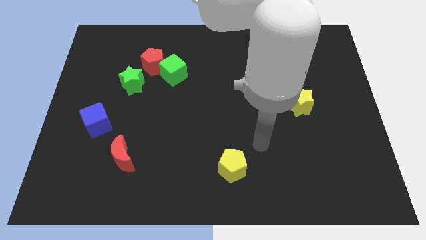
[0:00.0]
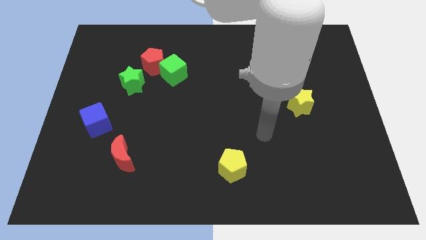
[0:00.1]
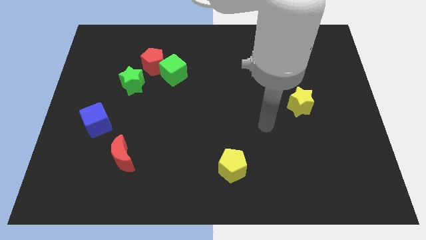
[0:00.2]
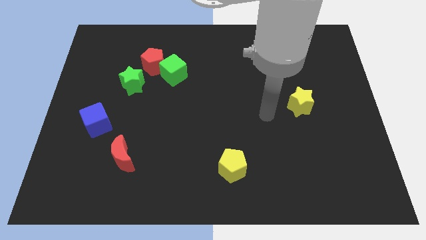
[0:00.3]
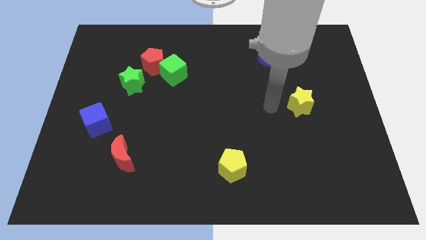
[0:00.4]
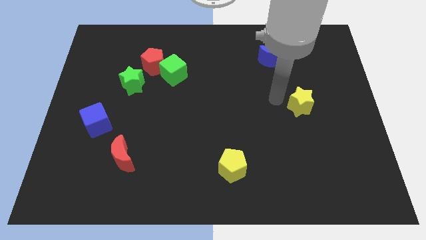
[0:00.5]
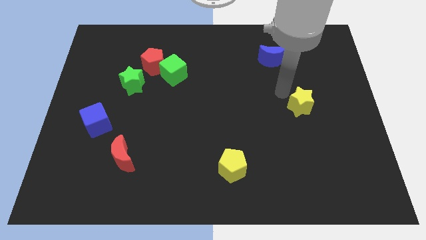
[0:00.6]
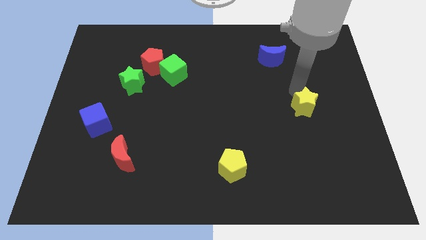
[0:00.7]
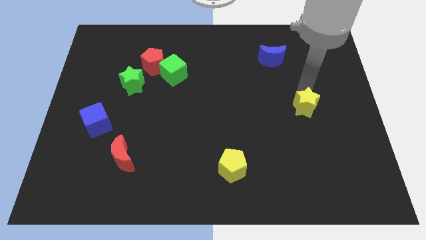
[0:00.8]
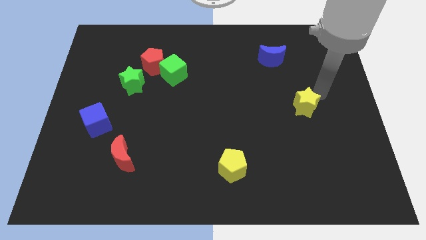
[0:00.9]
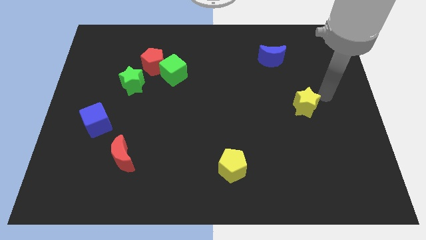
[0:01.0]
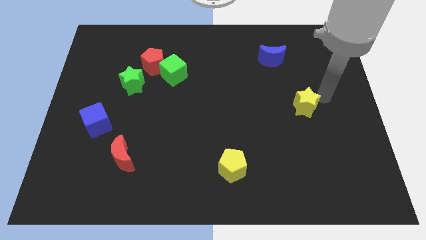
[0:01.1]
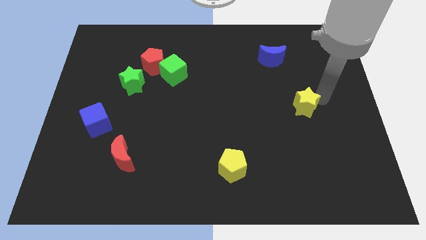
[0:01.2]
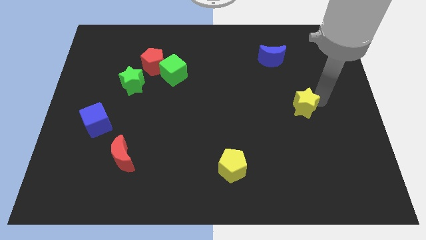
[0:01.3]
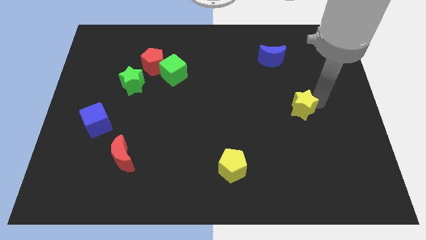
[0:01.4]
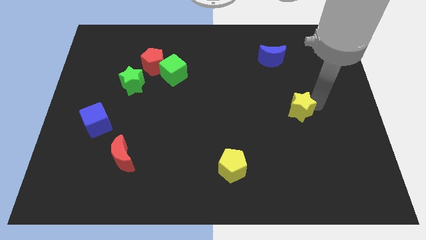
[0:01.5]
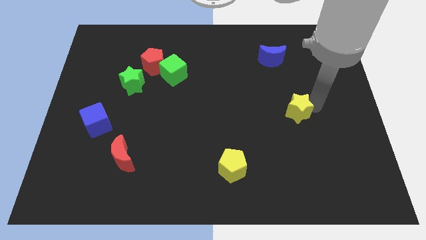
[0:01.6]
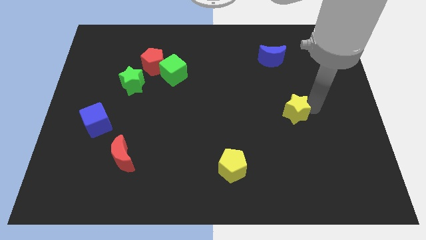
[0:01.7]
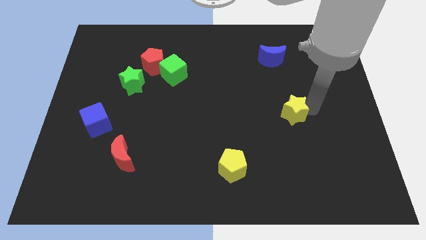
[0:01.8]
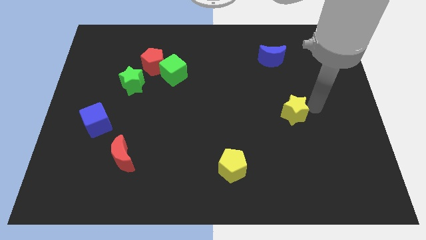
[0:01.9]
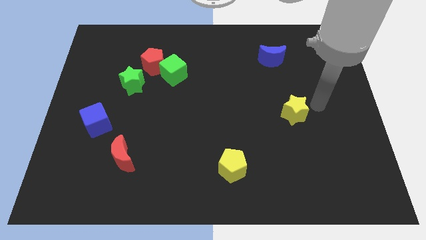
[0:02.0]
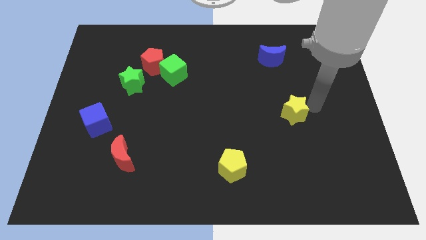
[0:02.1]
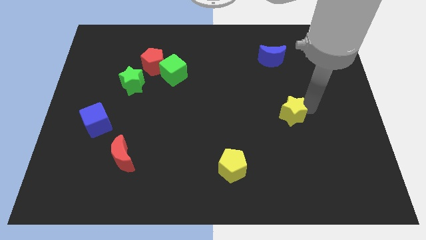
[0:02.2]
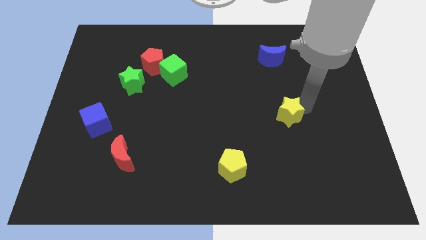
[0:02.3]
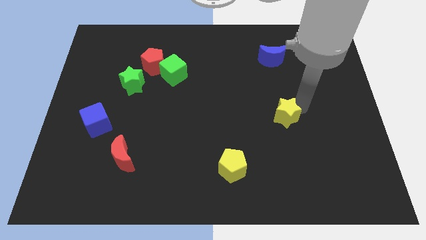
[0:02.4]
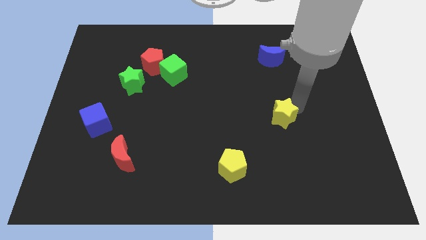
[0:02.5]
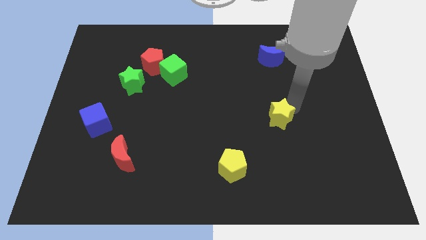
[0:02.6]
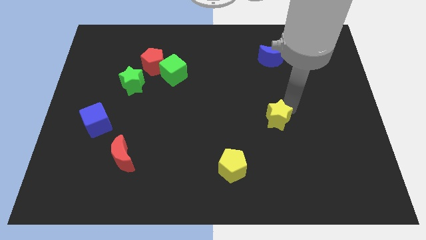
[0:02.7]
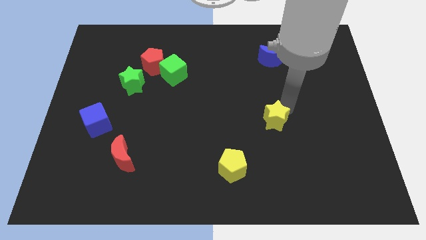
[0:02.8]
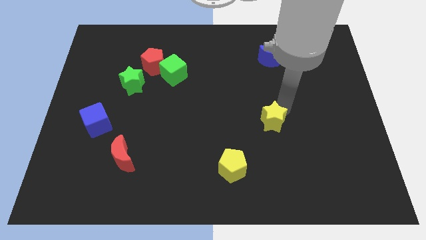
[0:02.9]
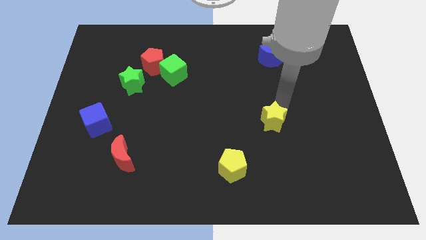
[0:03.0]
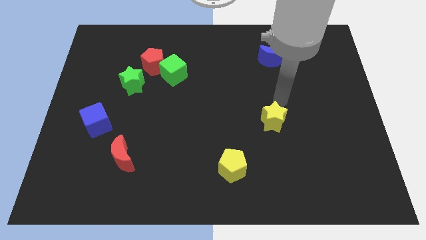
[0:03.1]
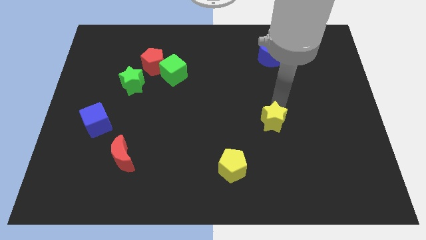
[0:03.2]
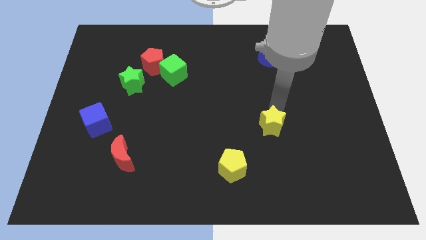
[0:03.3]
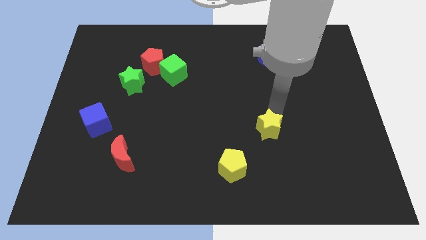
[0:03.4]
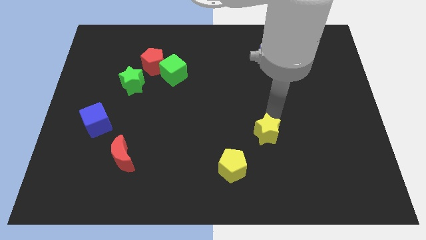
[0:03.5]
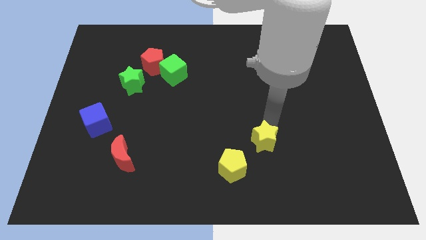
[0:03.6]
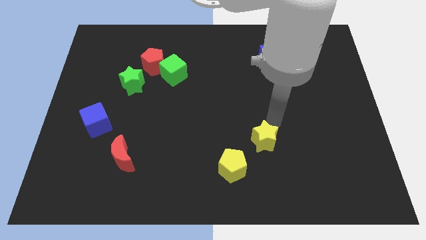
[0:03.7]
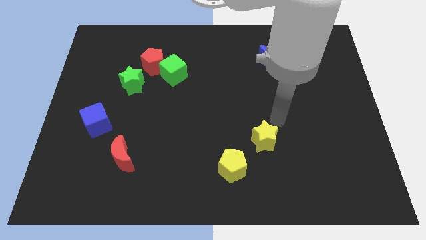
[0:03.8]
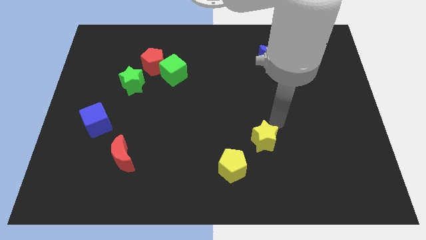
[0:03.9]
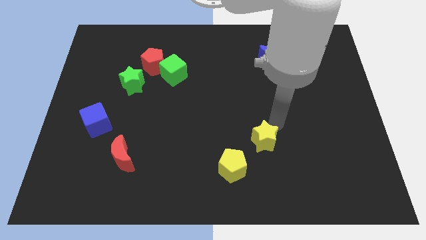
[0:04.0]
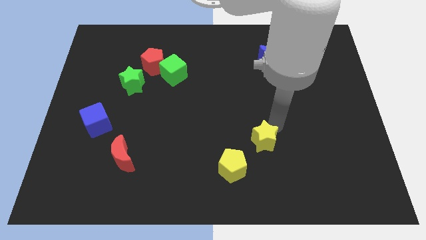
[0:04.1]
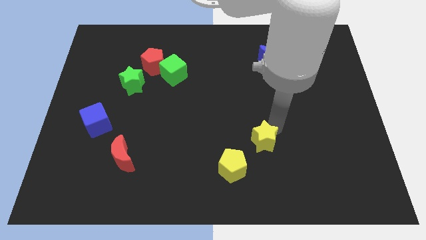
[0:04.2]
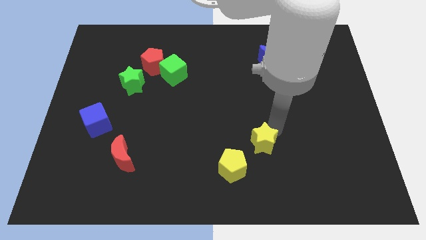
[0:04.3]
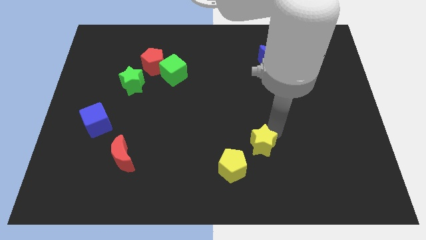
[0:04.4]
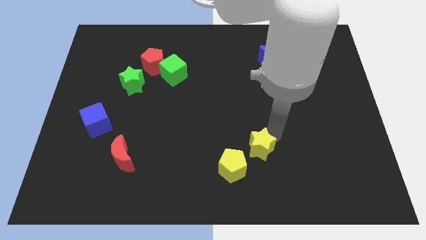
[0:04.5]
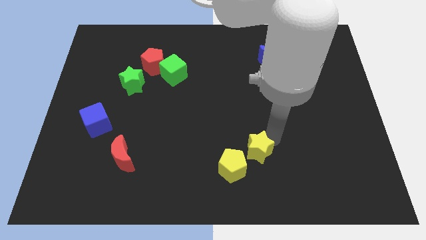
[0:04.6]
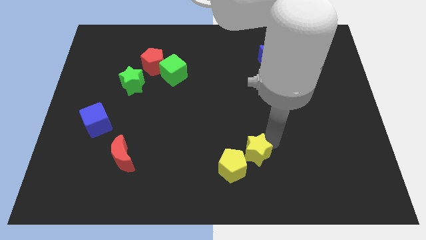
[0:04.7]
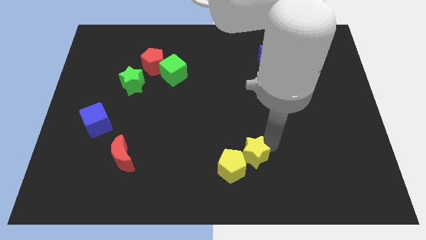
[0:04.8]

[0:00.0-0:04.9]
slide the yellow star next to the yellow pentagon

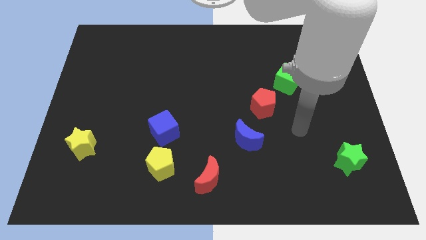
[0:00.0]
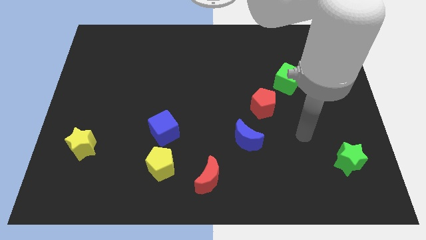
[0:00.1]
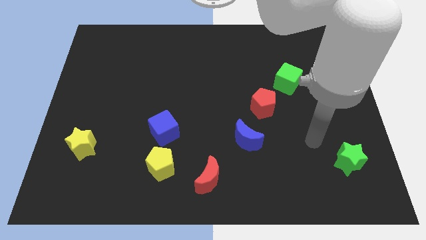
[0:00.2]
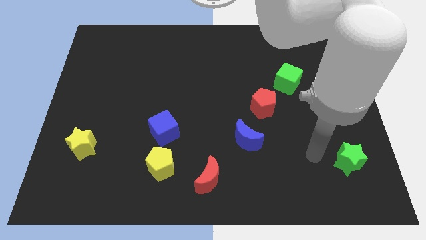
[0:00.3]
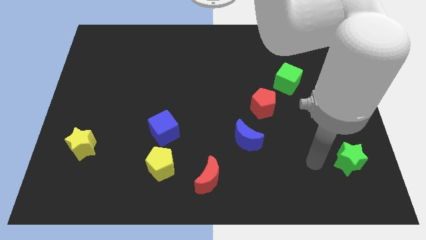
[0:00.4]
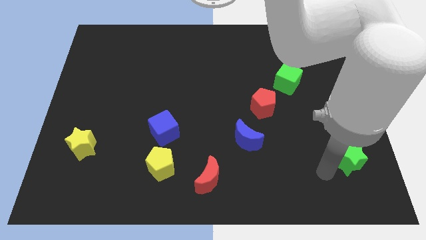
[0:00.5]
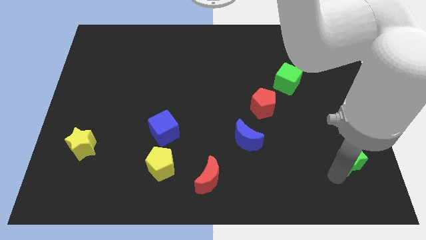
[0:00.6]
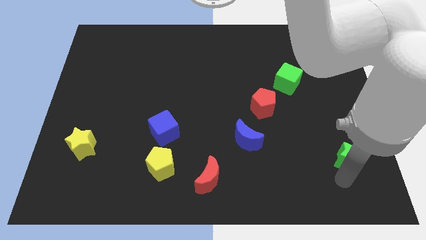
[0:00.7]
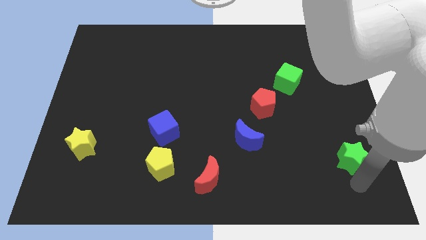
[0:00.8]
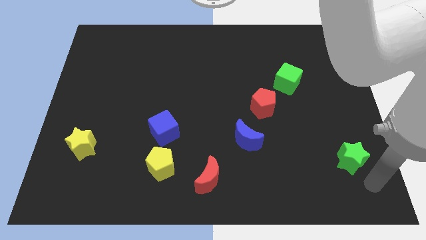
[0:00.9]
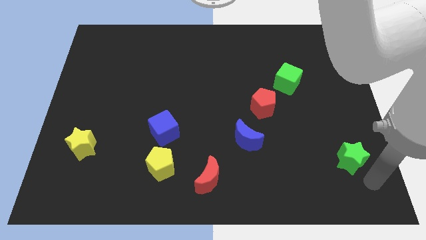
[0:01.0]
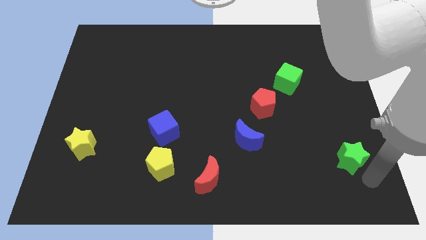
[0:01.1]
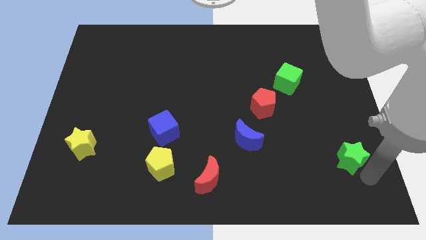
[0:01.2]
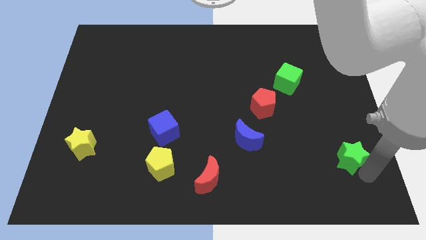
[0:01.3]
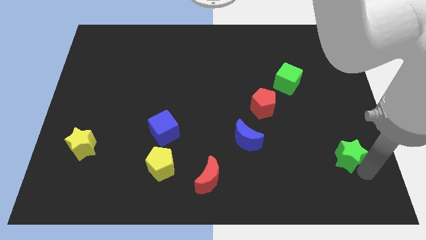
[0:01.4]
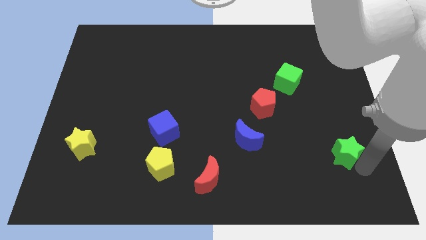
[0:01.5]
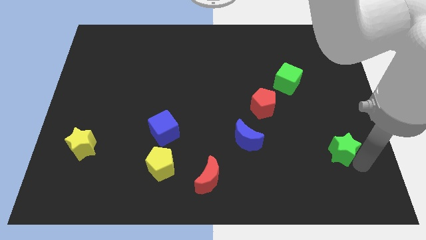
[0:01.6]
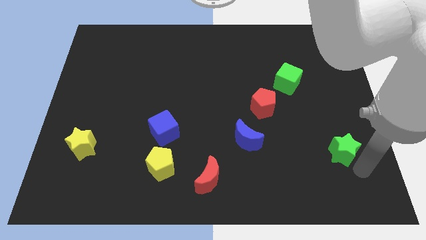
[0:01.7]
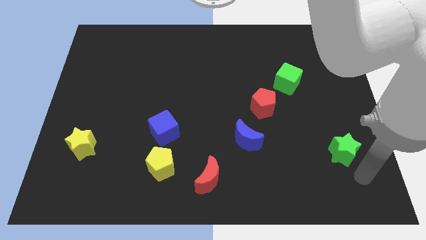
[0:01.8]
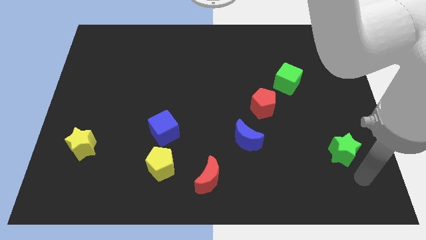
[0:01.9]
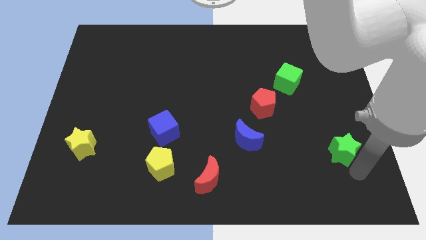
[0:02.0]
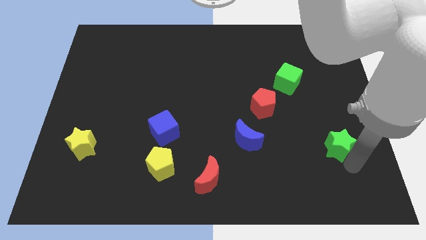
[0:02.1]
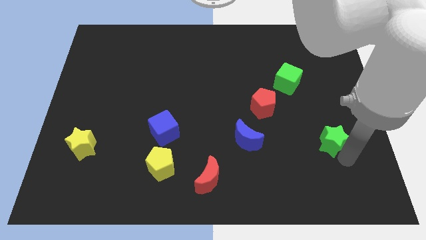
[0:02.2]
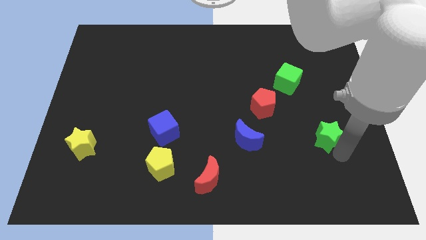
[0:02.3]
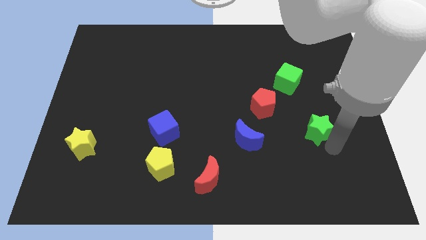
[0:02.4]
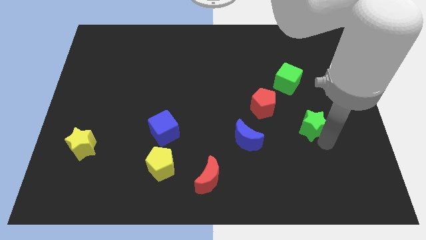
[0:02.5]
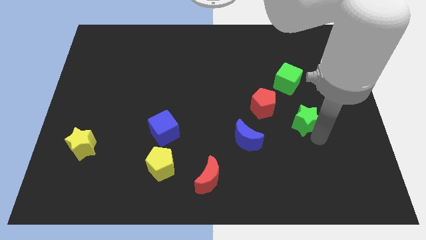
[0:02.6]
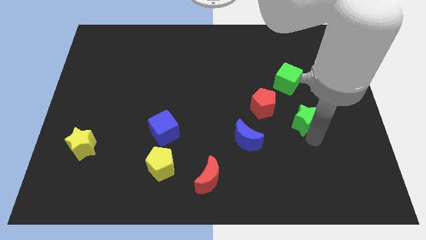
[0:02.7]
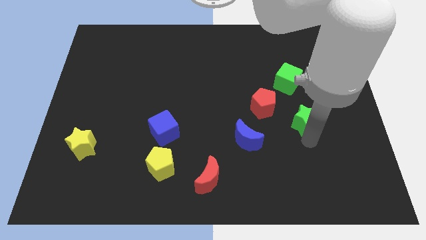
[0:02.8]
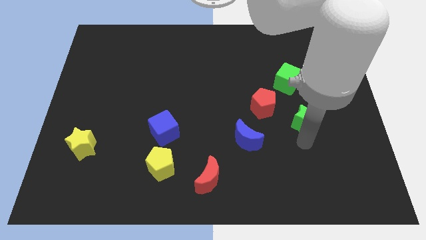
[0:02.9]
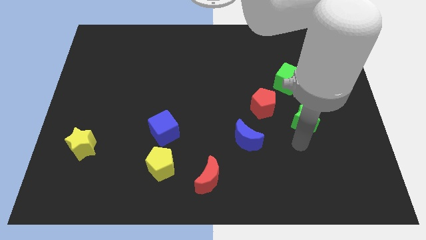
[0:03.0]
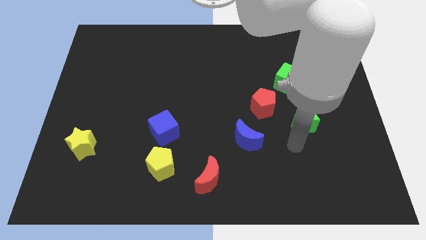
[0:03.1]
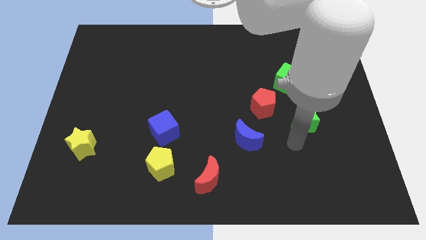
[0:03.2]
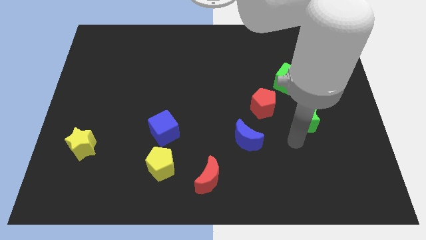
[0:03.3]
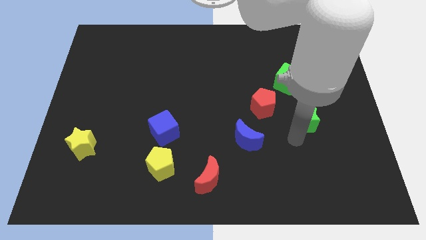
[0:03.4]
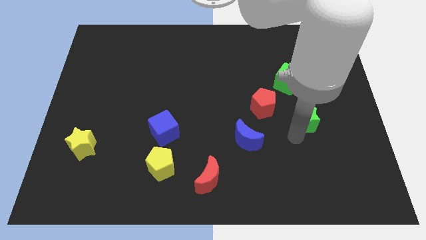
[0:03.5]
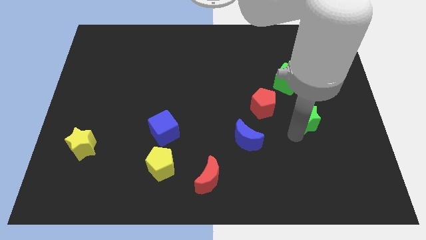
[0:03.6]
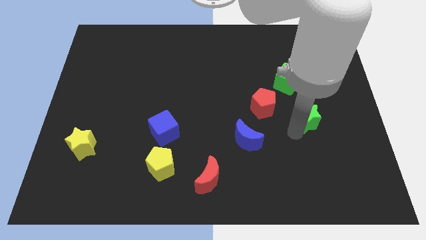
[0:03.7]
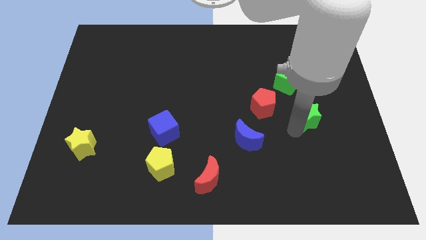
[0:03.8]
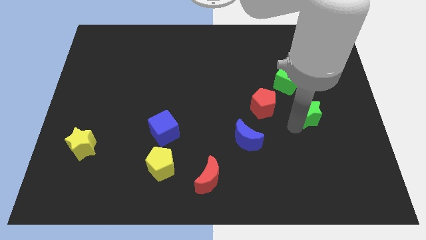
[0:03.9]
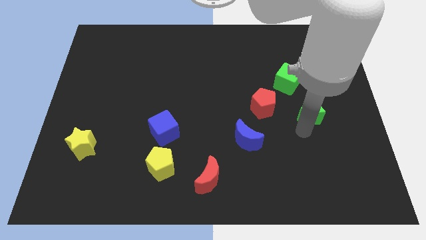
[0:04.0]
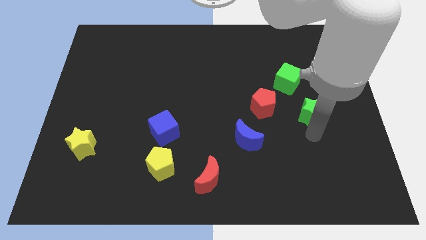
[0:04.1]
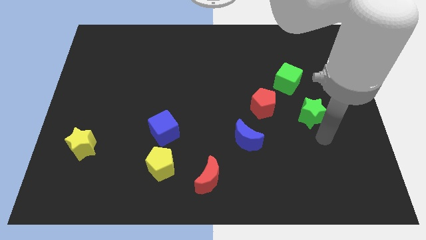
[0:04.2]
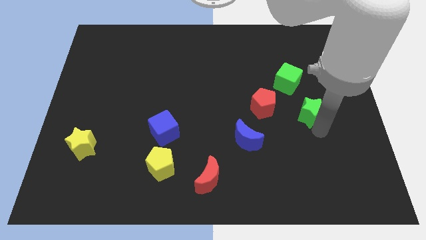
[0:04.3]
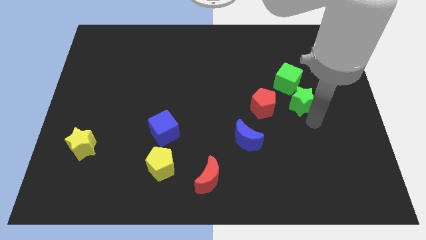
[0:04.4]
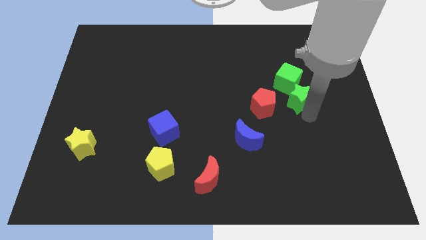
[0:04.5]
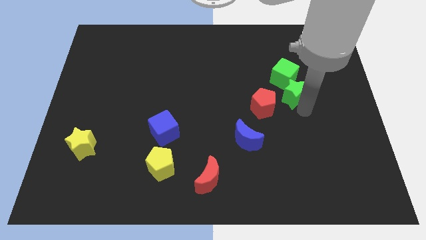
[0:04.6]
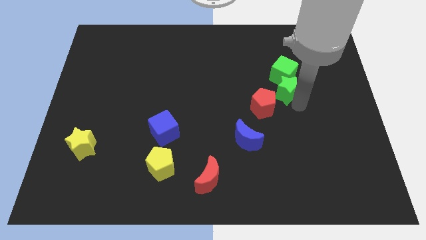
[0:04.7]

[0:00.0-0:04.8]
push the green star towards the green cube
